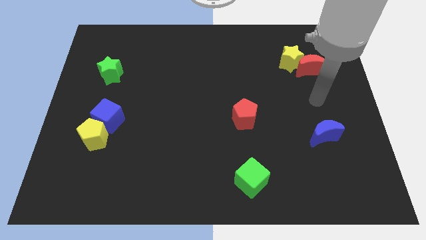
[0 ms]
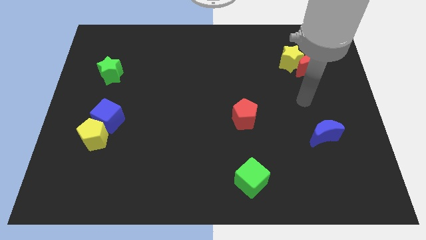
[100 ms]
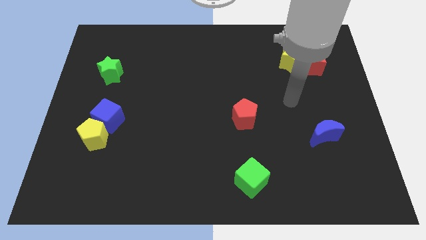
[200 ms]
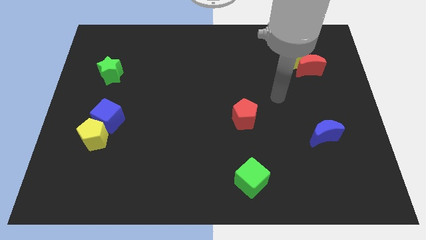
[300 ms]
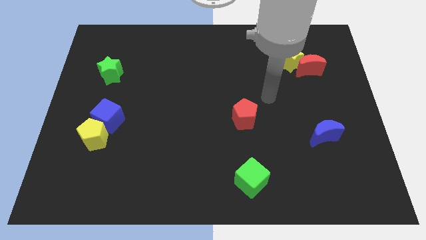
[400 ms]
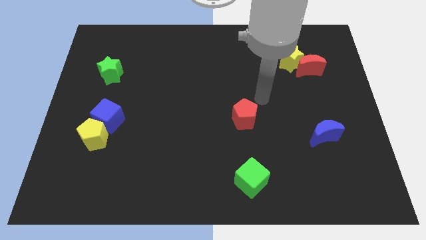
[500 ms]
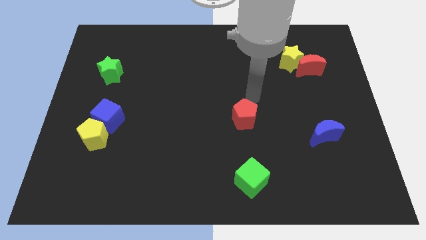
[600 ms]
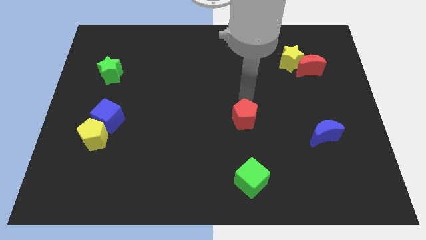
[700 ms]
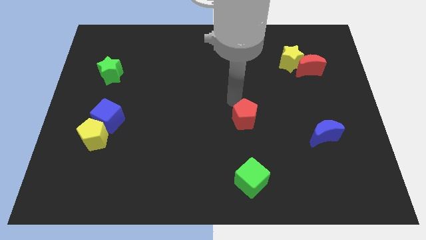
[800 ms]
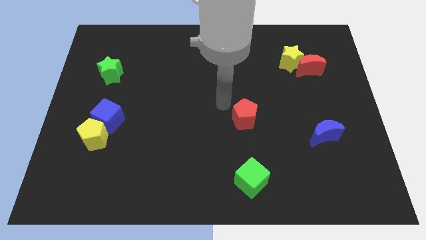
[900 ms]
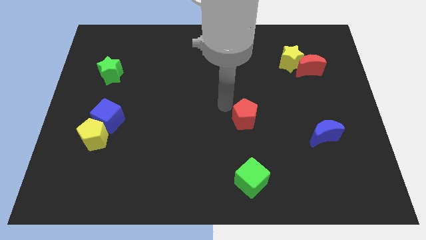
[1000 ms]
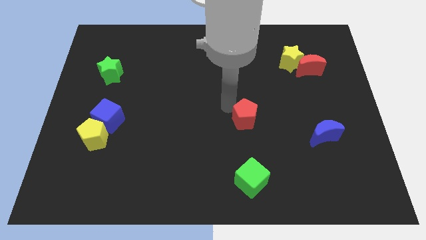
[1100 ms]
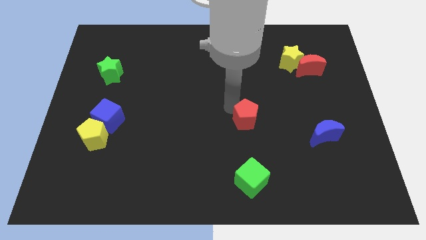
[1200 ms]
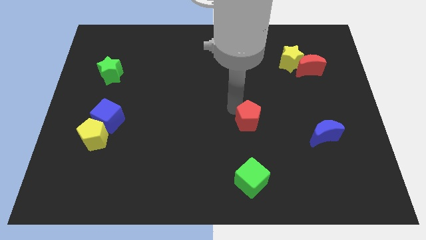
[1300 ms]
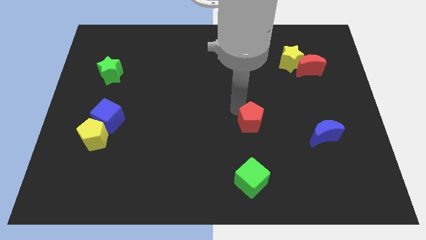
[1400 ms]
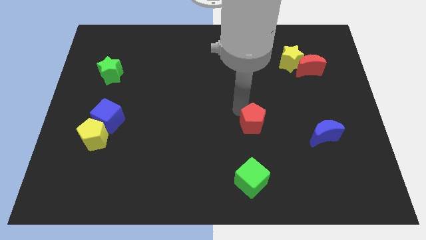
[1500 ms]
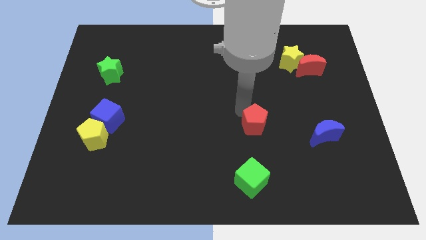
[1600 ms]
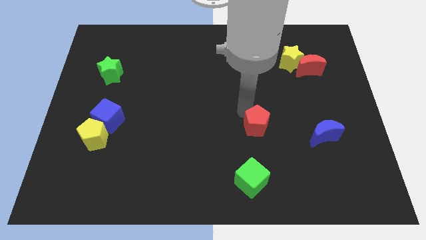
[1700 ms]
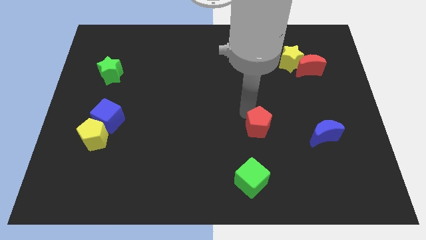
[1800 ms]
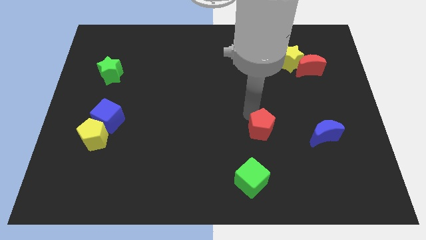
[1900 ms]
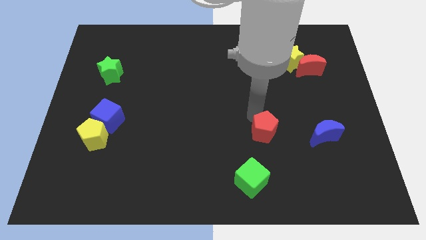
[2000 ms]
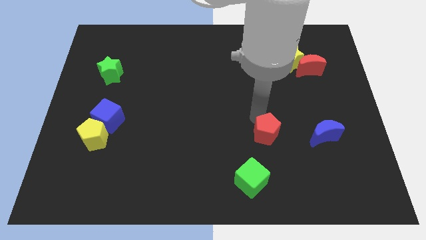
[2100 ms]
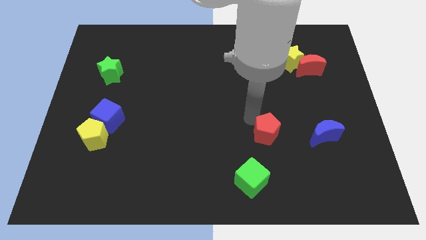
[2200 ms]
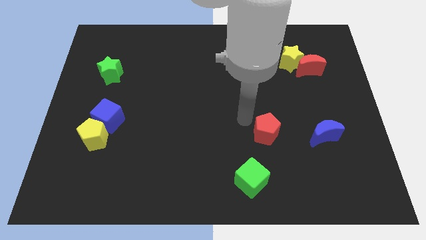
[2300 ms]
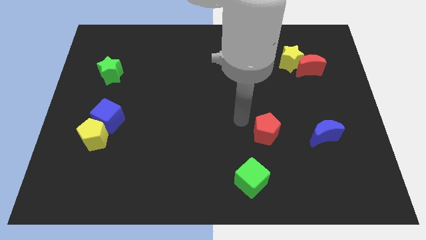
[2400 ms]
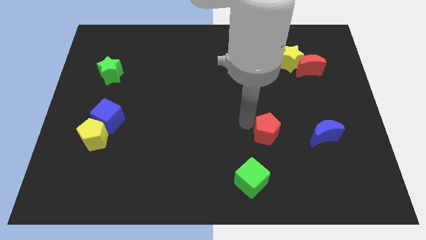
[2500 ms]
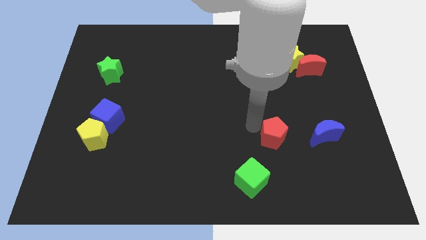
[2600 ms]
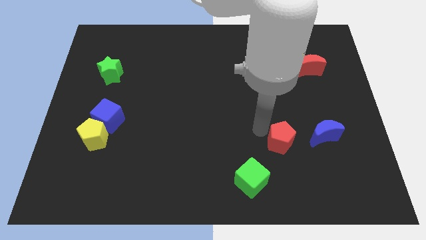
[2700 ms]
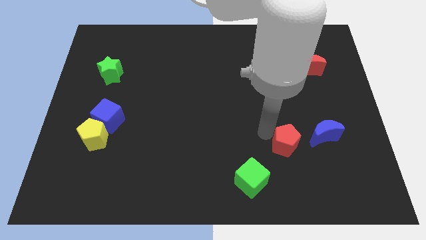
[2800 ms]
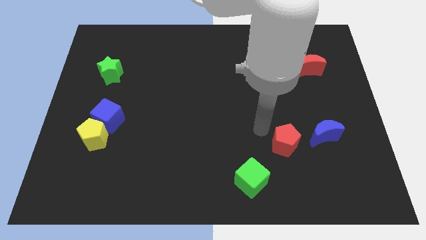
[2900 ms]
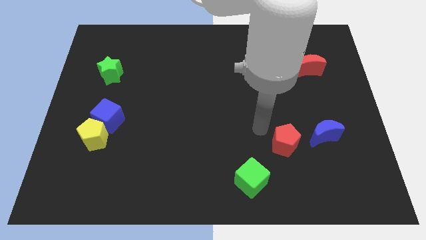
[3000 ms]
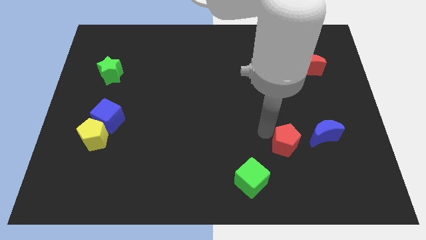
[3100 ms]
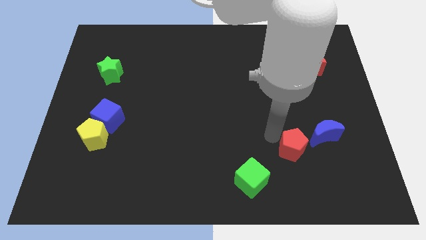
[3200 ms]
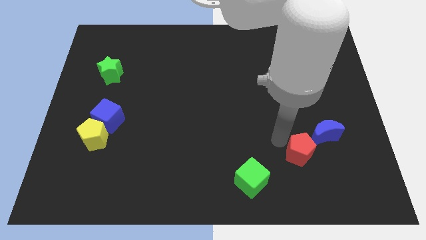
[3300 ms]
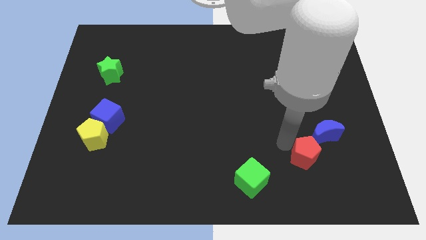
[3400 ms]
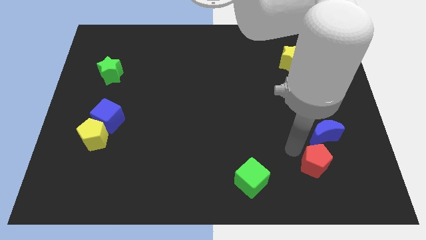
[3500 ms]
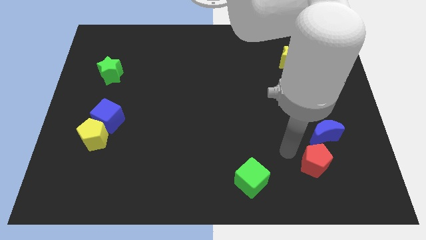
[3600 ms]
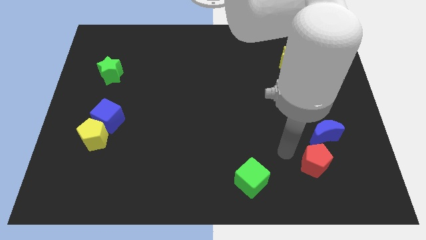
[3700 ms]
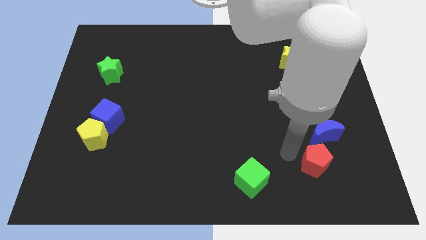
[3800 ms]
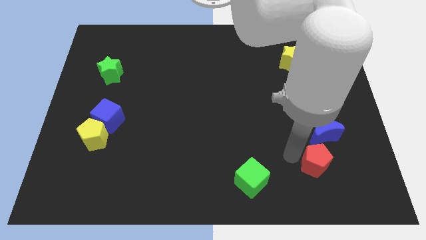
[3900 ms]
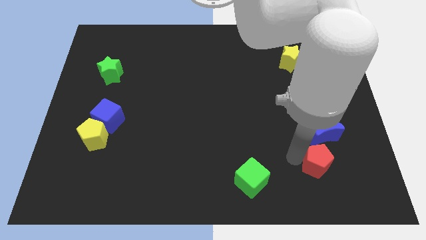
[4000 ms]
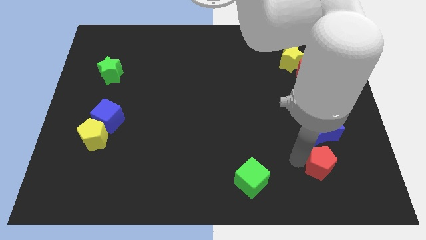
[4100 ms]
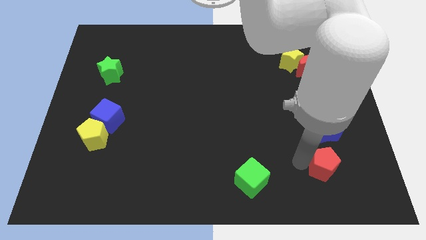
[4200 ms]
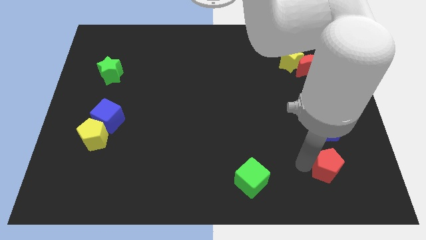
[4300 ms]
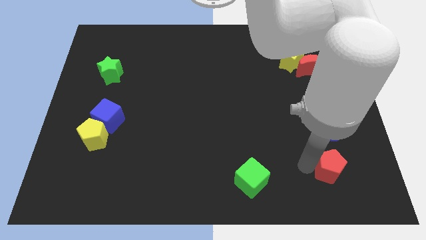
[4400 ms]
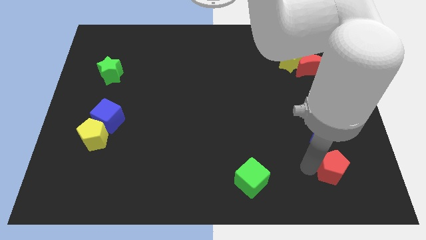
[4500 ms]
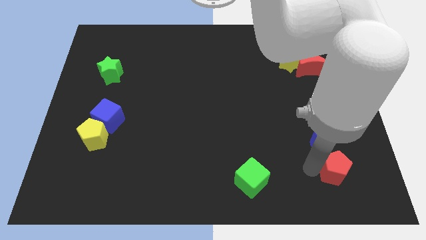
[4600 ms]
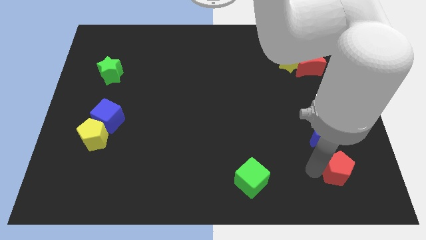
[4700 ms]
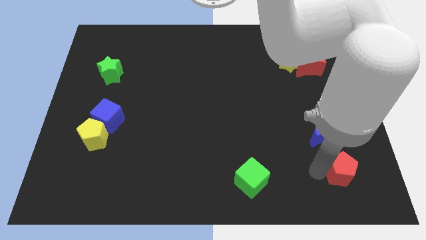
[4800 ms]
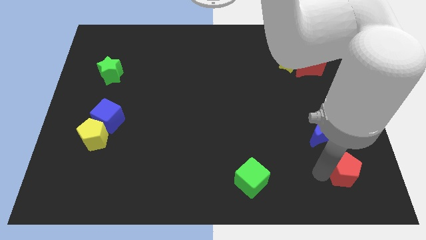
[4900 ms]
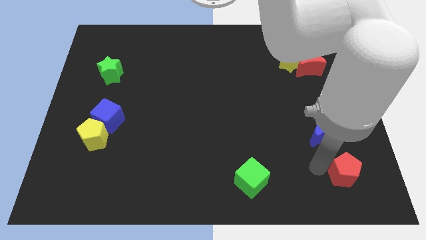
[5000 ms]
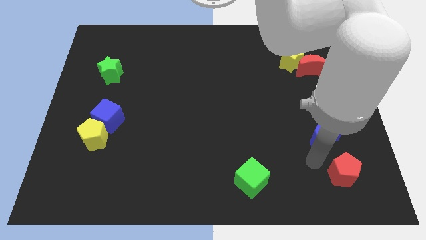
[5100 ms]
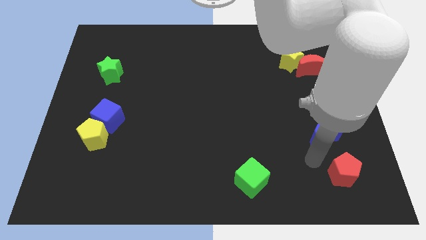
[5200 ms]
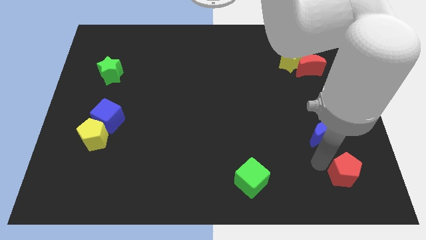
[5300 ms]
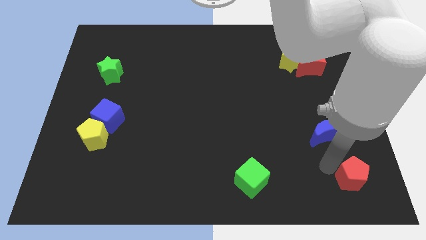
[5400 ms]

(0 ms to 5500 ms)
put the red pentagon to the bottom right

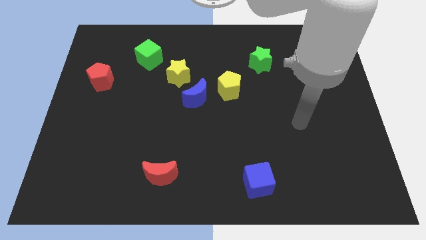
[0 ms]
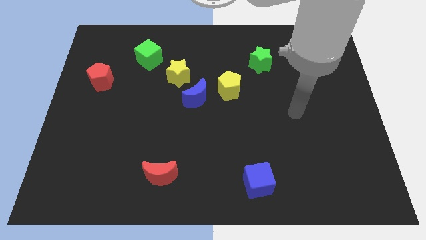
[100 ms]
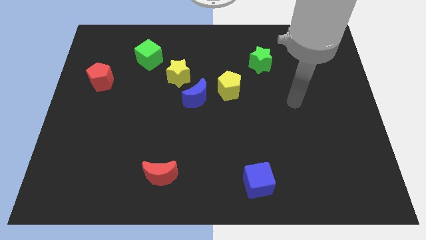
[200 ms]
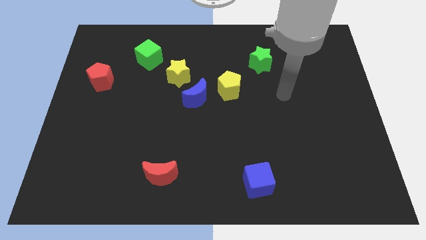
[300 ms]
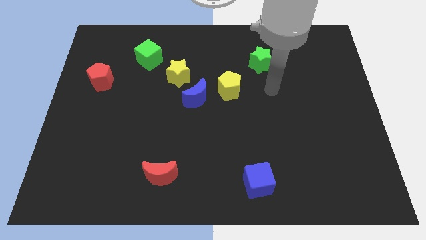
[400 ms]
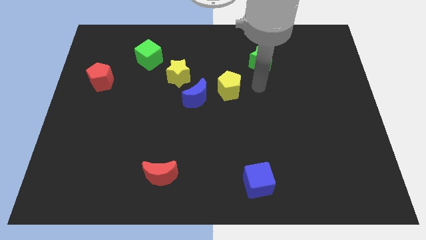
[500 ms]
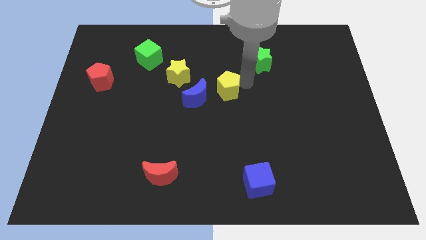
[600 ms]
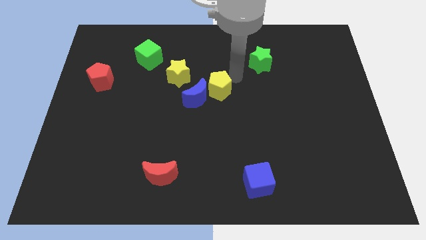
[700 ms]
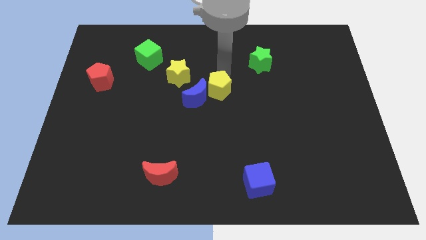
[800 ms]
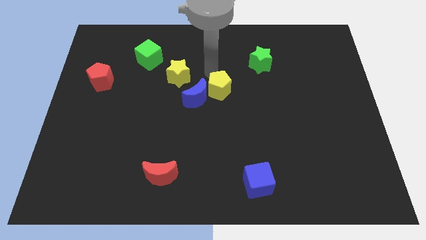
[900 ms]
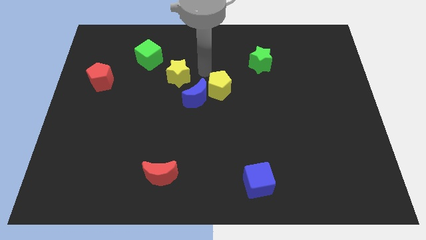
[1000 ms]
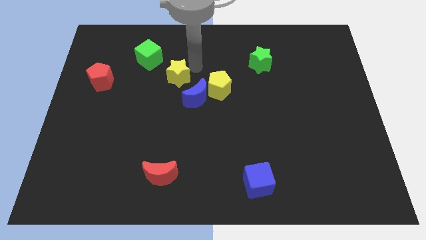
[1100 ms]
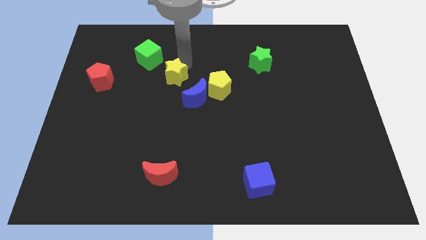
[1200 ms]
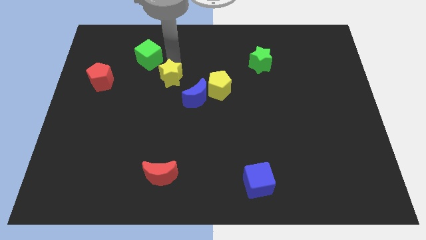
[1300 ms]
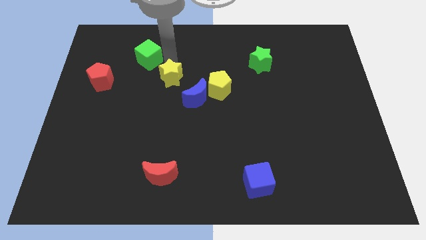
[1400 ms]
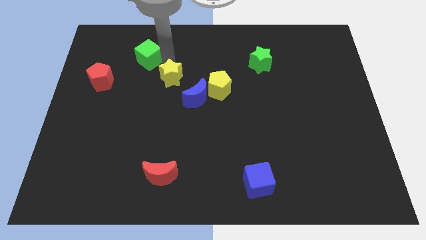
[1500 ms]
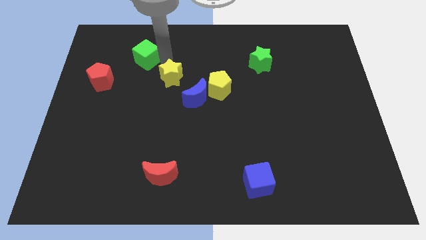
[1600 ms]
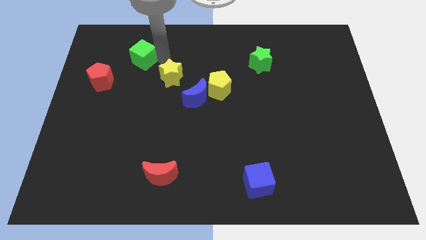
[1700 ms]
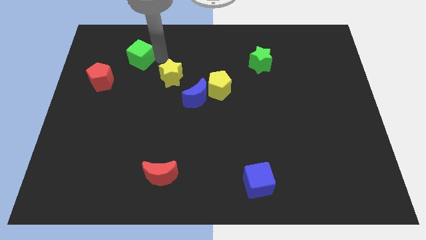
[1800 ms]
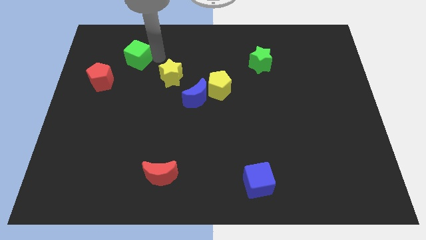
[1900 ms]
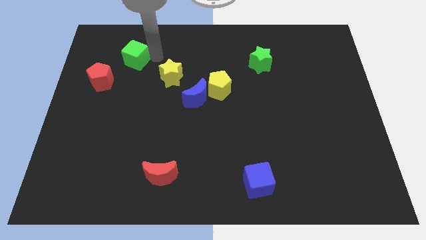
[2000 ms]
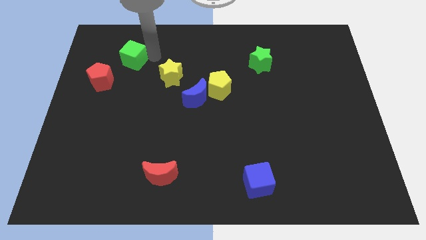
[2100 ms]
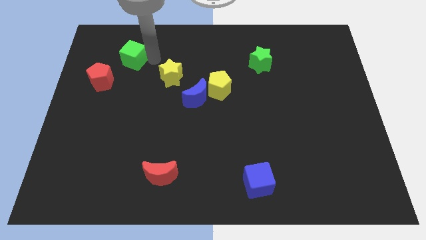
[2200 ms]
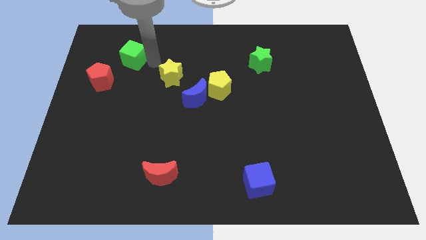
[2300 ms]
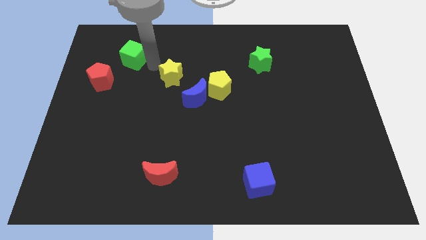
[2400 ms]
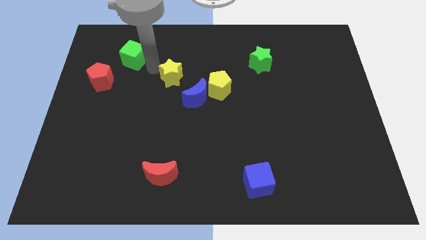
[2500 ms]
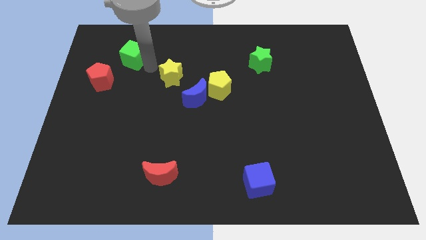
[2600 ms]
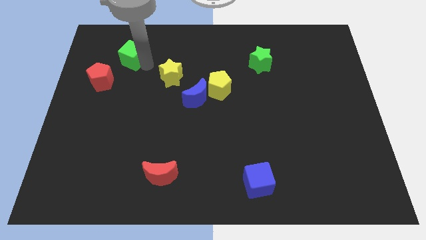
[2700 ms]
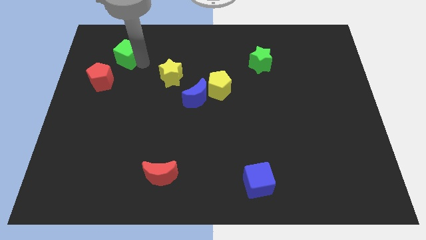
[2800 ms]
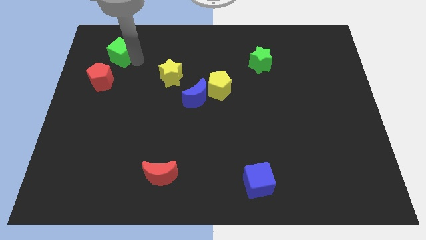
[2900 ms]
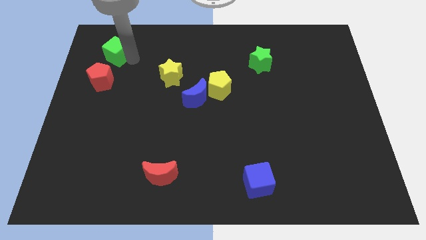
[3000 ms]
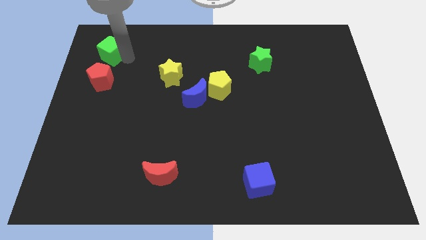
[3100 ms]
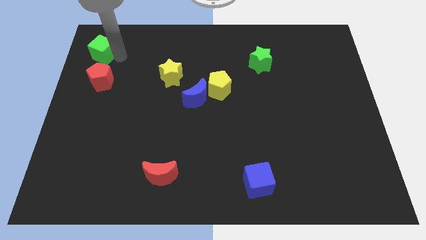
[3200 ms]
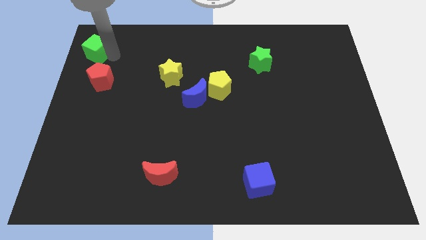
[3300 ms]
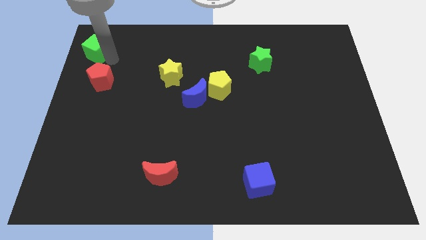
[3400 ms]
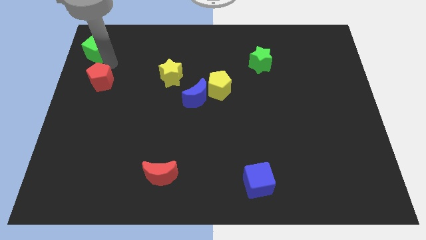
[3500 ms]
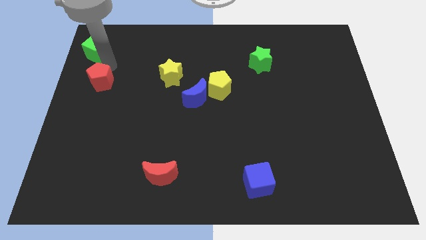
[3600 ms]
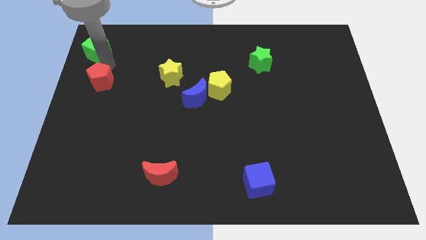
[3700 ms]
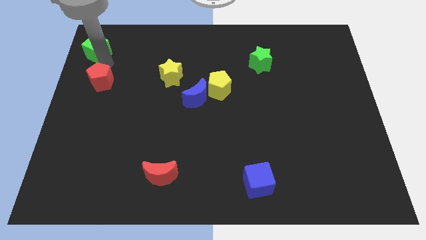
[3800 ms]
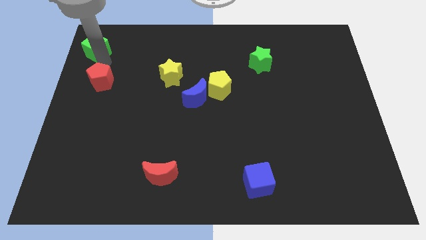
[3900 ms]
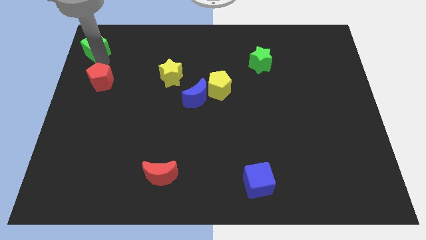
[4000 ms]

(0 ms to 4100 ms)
slide the green cube to the top left corner
